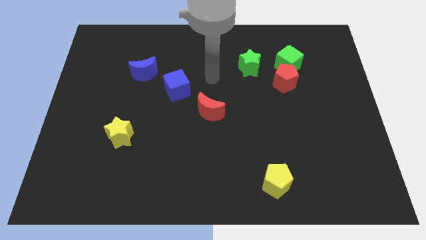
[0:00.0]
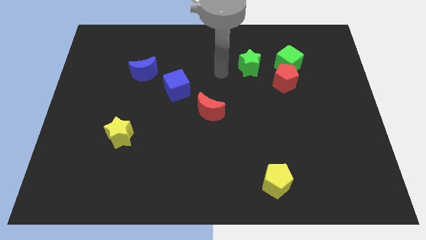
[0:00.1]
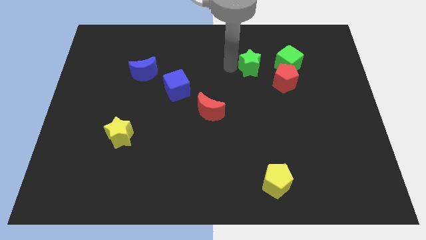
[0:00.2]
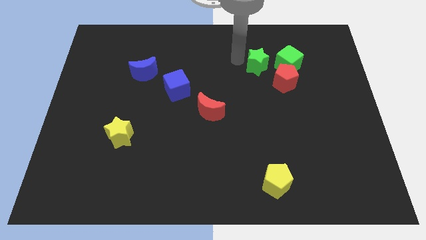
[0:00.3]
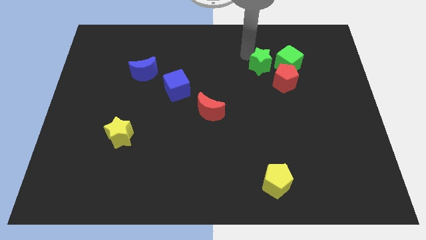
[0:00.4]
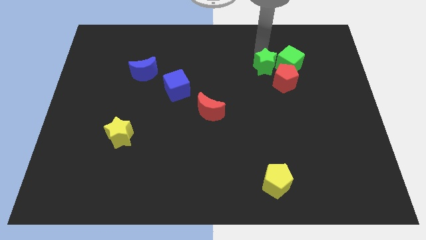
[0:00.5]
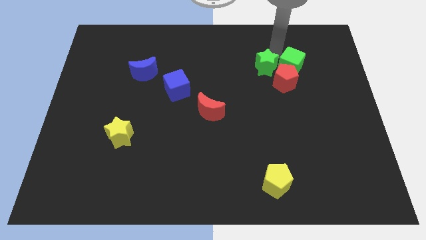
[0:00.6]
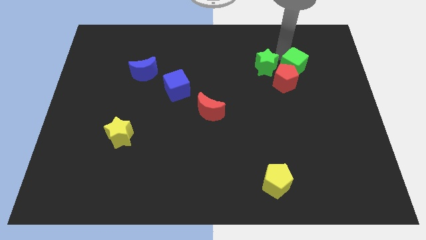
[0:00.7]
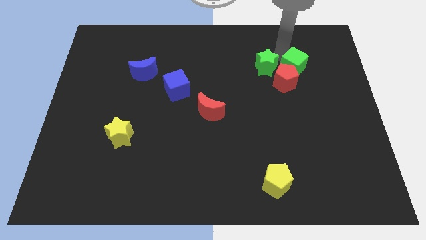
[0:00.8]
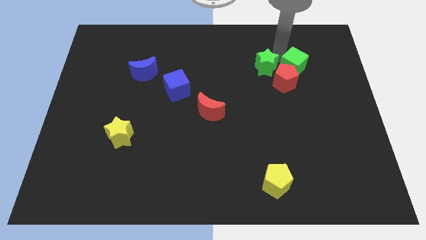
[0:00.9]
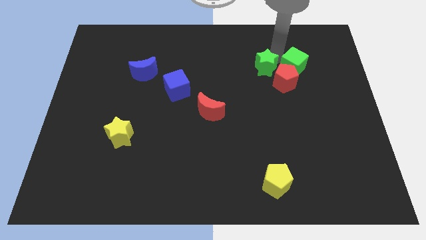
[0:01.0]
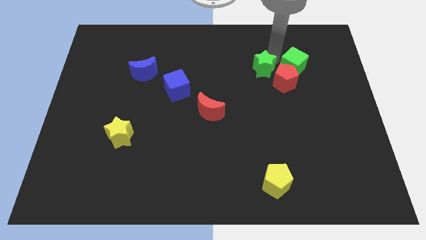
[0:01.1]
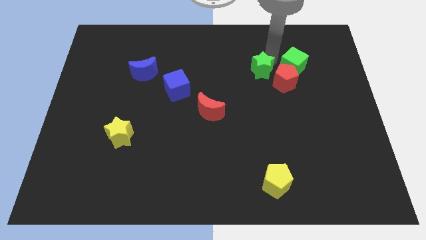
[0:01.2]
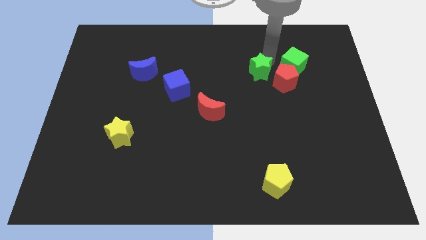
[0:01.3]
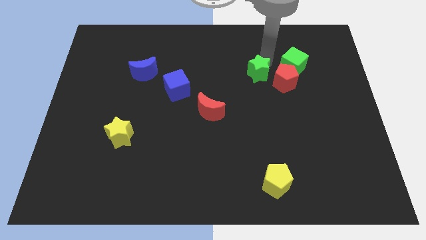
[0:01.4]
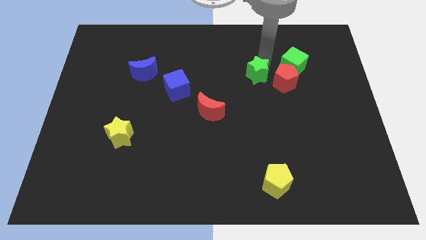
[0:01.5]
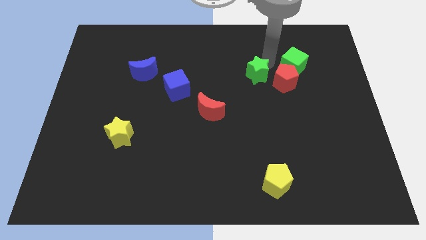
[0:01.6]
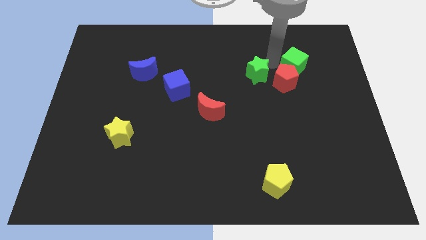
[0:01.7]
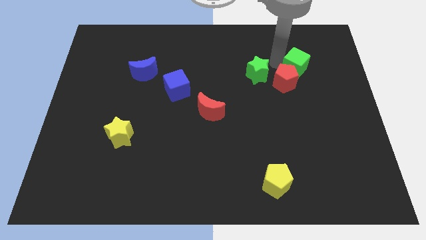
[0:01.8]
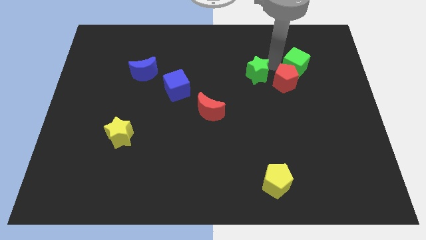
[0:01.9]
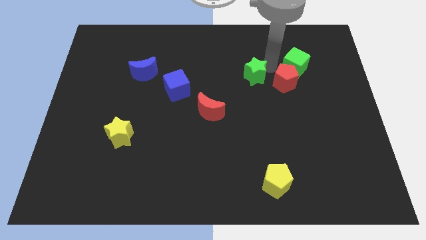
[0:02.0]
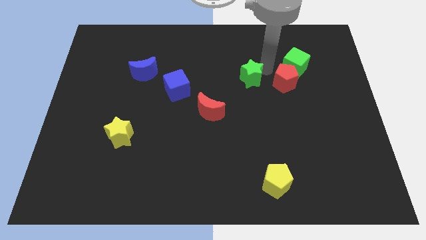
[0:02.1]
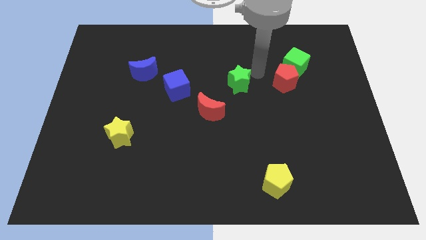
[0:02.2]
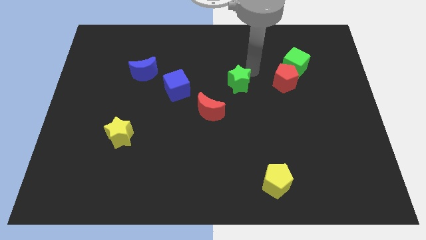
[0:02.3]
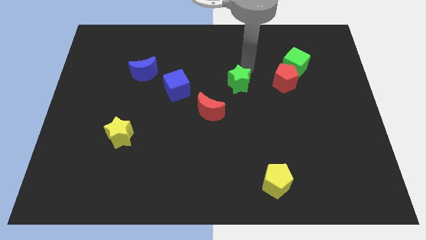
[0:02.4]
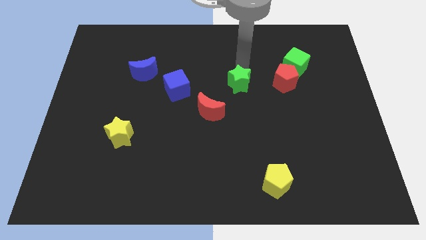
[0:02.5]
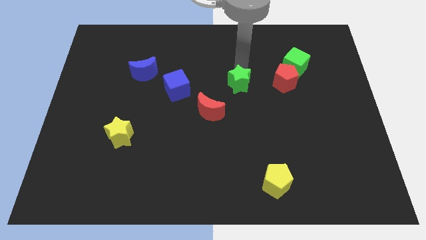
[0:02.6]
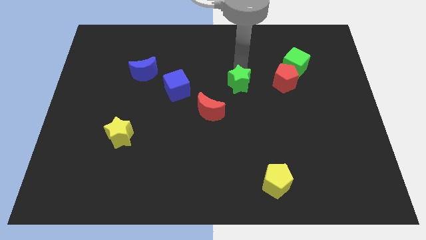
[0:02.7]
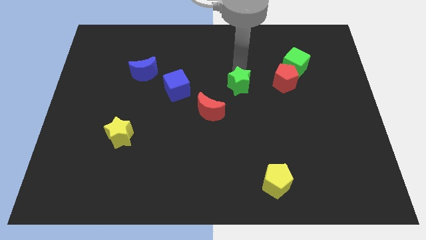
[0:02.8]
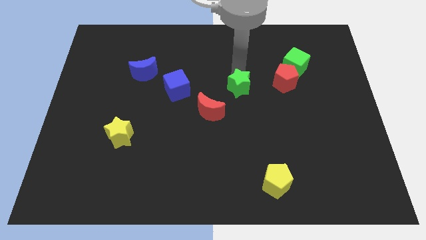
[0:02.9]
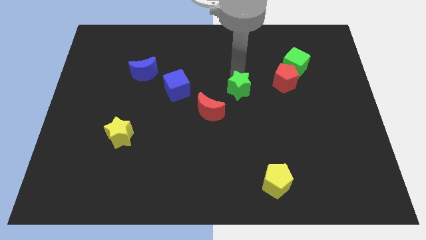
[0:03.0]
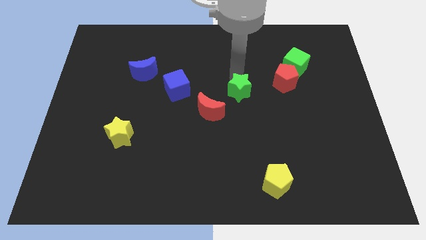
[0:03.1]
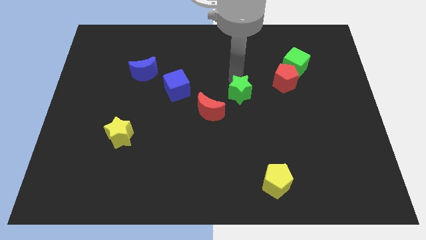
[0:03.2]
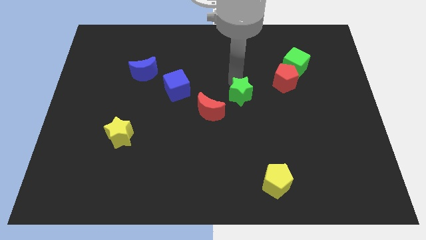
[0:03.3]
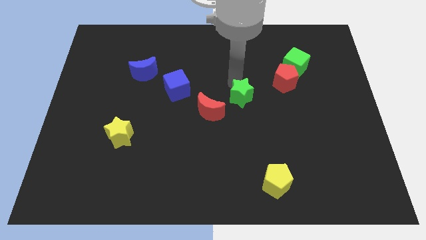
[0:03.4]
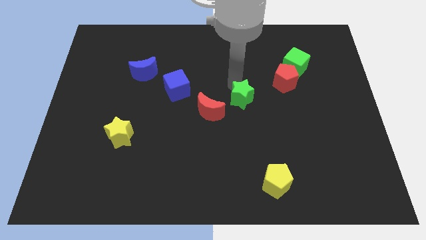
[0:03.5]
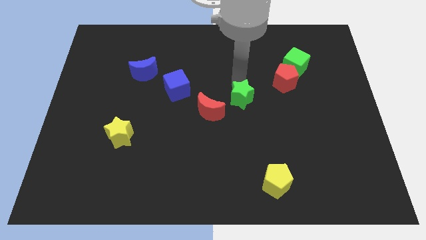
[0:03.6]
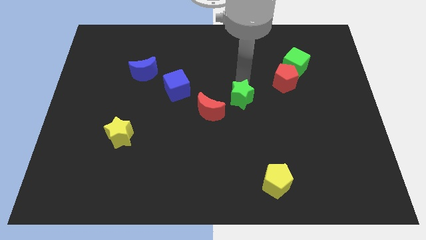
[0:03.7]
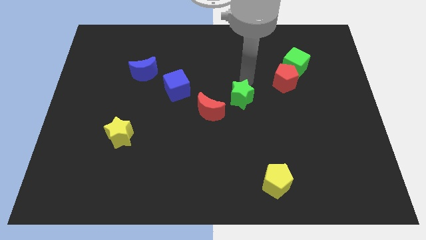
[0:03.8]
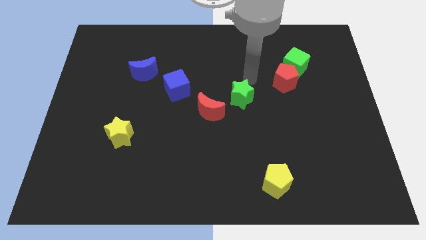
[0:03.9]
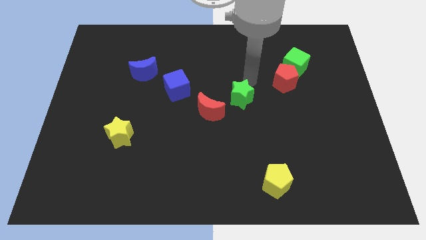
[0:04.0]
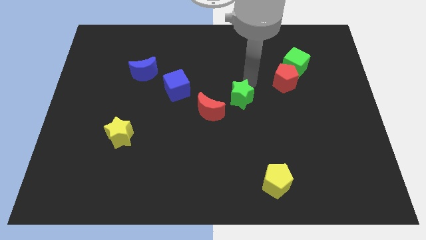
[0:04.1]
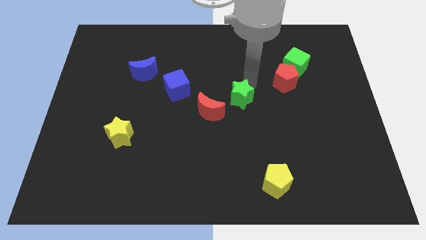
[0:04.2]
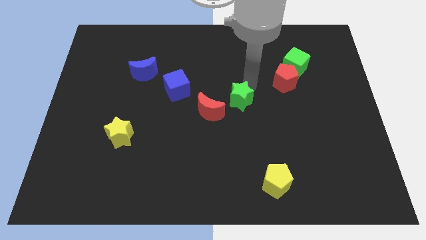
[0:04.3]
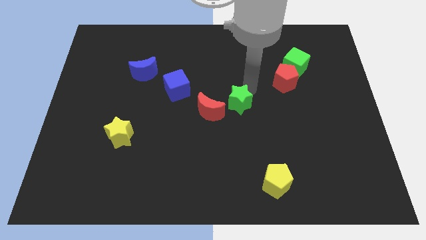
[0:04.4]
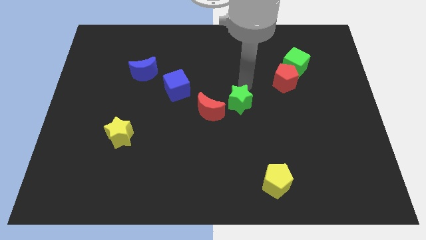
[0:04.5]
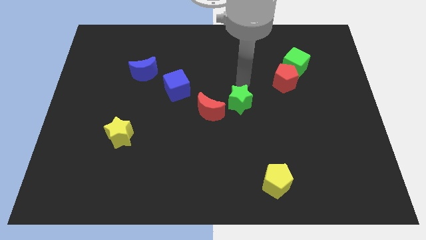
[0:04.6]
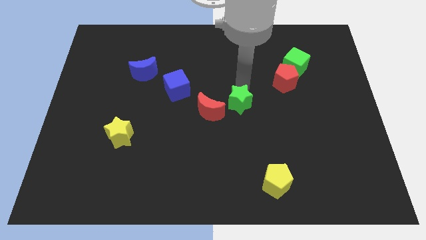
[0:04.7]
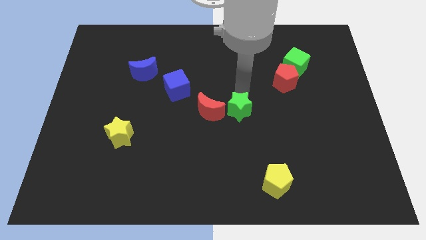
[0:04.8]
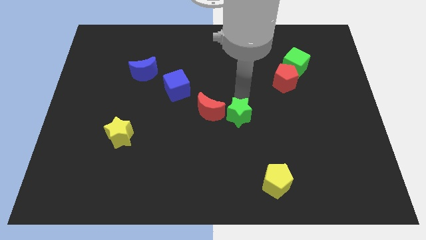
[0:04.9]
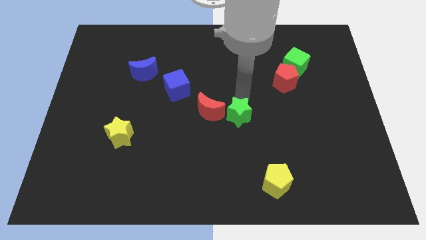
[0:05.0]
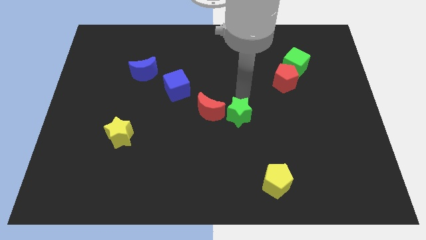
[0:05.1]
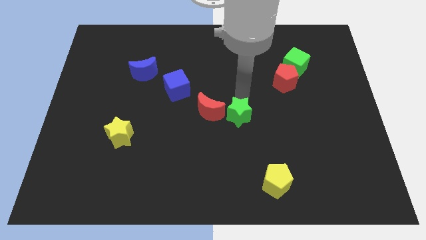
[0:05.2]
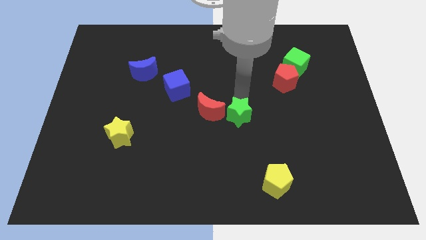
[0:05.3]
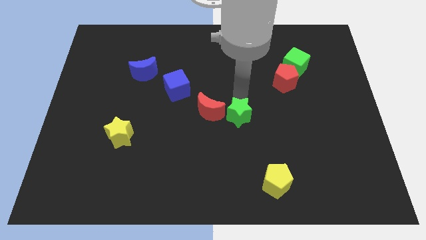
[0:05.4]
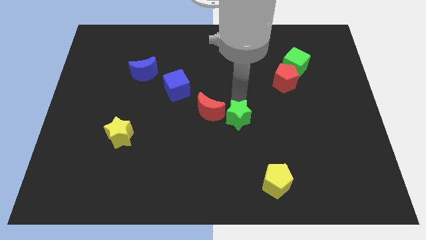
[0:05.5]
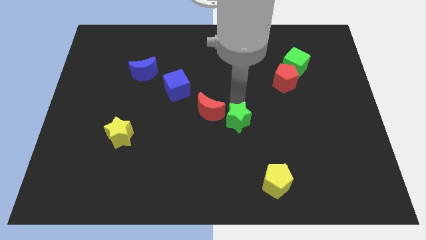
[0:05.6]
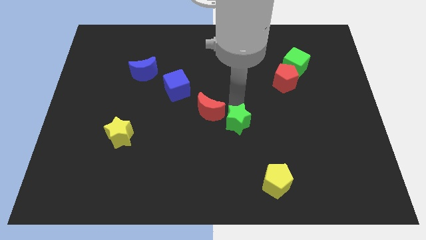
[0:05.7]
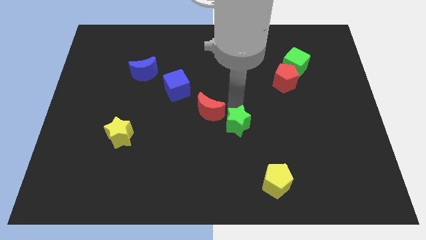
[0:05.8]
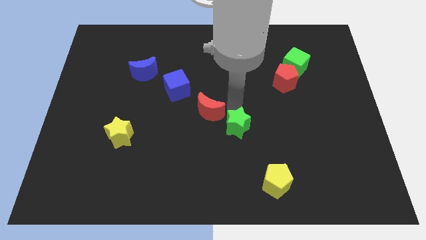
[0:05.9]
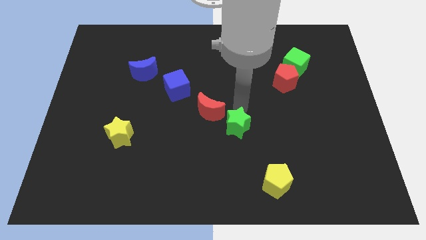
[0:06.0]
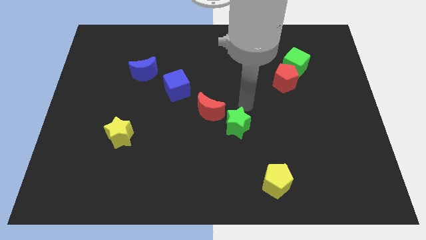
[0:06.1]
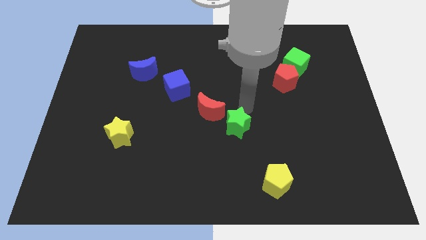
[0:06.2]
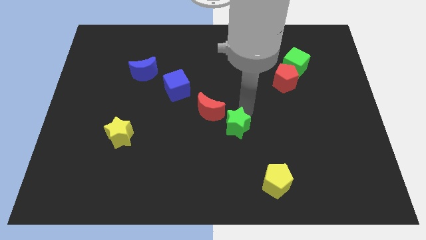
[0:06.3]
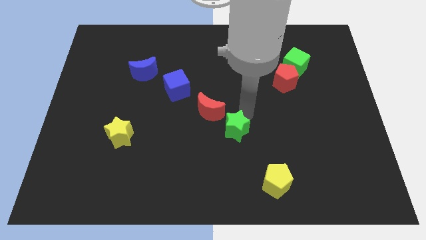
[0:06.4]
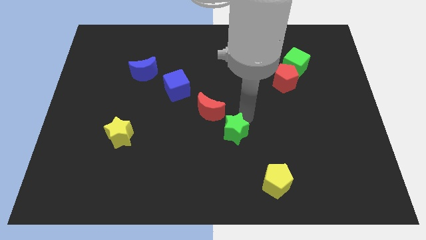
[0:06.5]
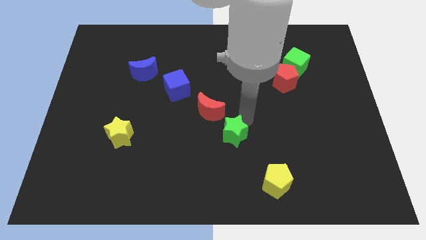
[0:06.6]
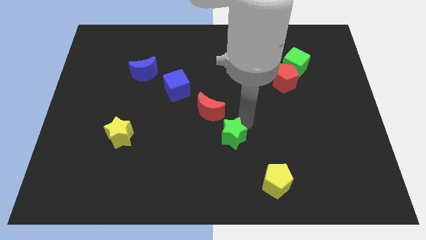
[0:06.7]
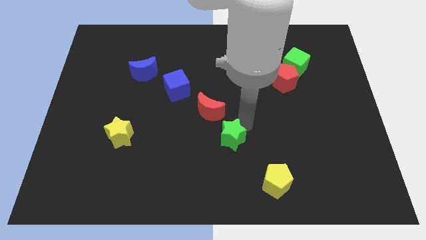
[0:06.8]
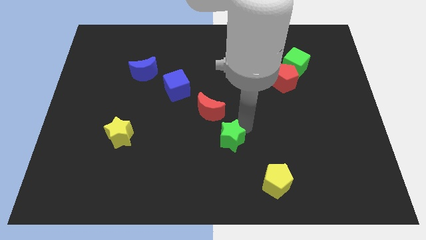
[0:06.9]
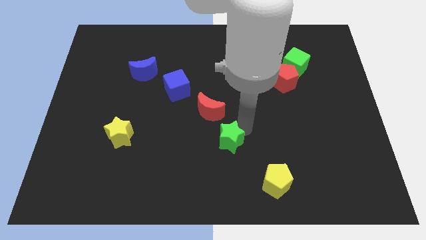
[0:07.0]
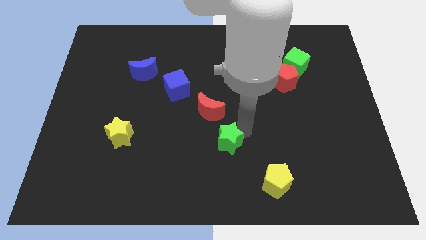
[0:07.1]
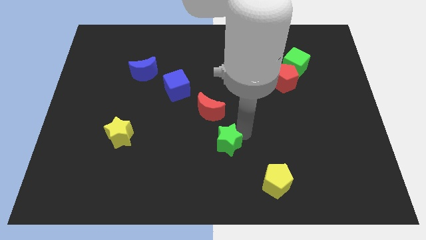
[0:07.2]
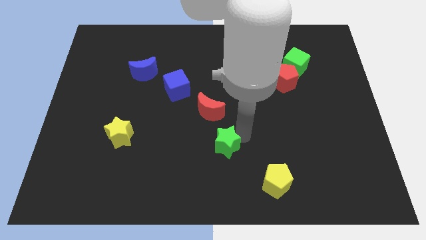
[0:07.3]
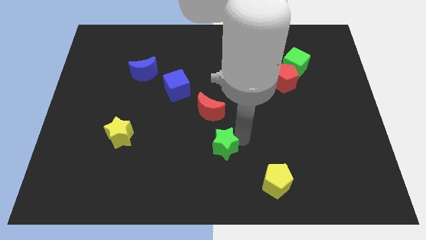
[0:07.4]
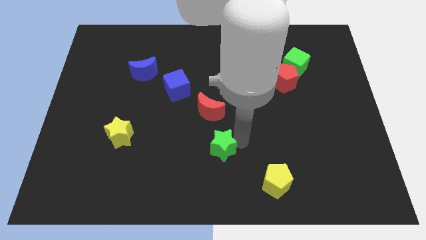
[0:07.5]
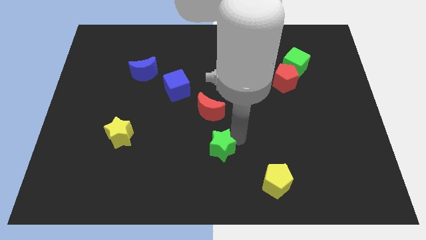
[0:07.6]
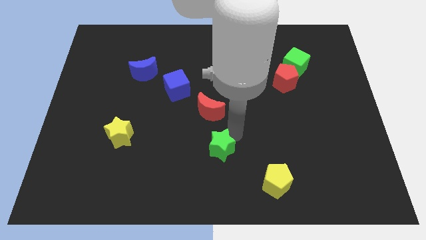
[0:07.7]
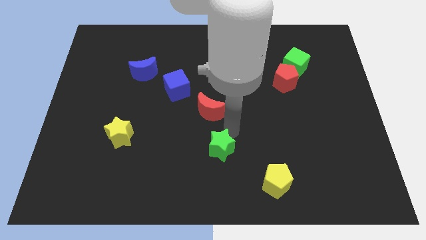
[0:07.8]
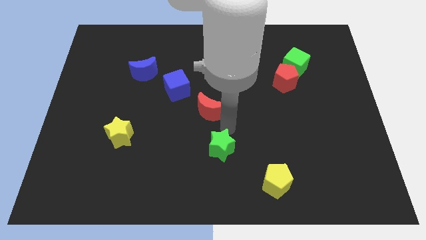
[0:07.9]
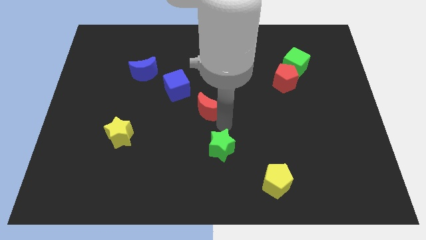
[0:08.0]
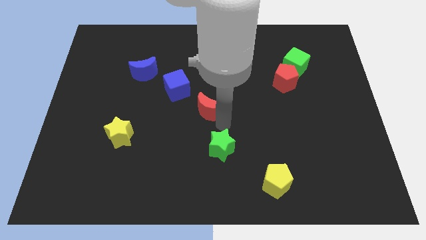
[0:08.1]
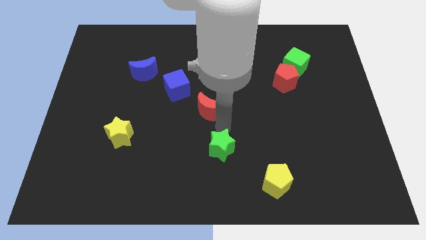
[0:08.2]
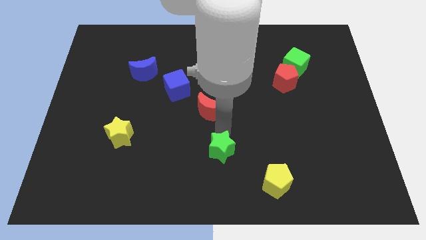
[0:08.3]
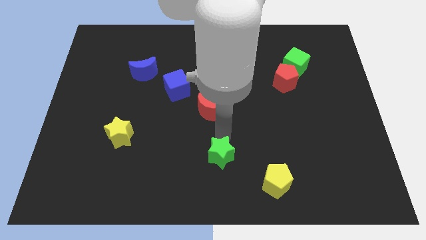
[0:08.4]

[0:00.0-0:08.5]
put the green star to the bottom side

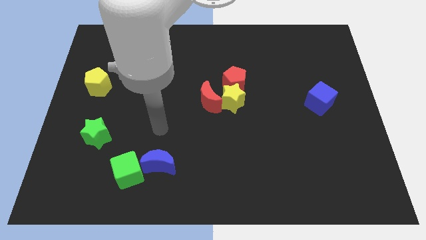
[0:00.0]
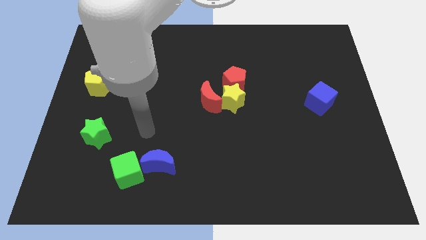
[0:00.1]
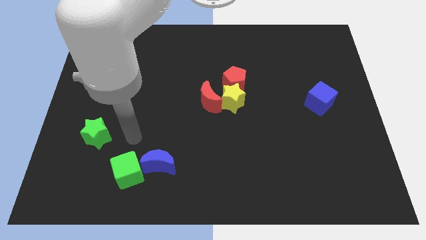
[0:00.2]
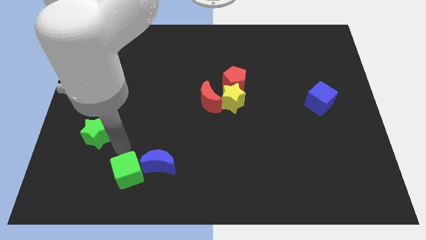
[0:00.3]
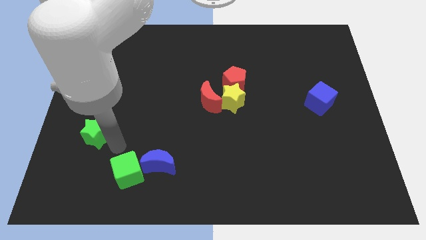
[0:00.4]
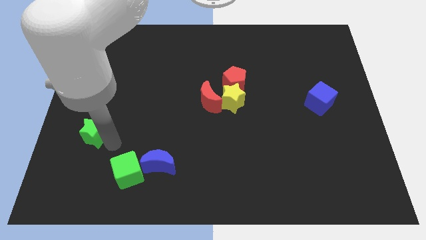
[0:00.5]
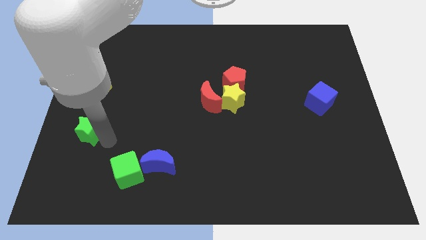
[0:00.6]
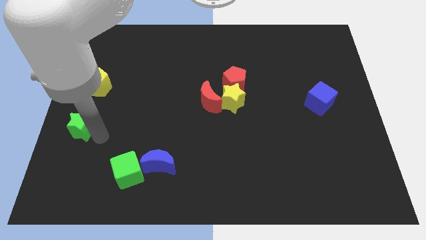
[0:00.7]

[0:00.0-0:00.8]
push the green star to the left side of the board
